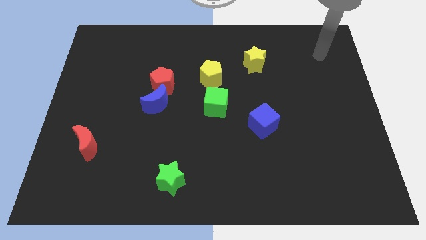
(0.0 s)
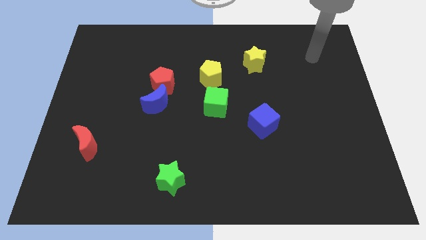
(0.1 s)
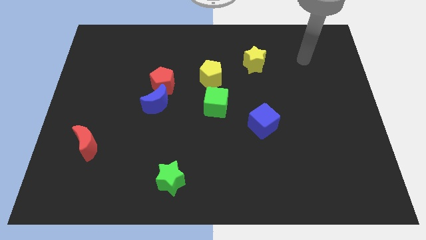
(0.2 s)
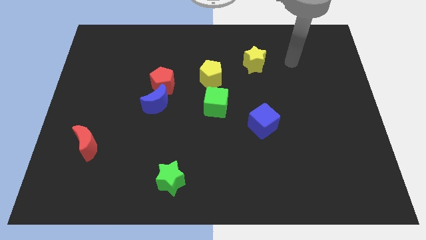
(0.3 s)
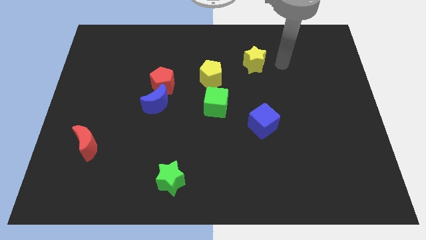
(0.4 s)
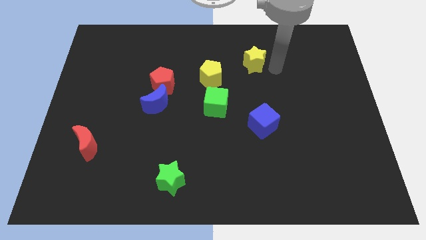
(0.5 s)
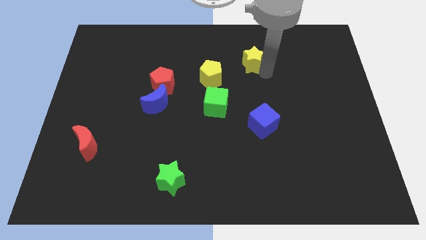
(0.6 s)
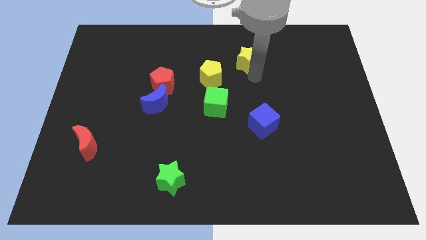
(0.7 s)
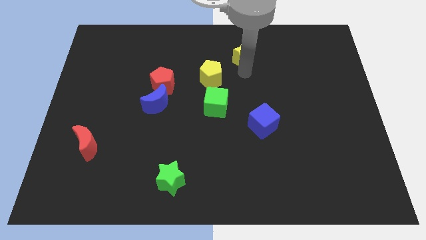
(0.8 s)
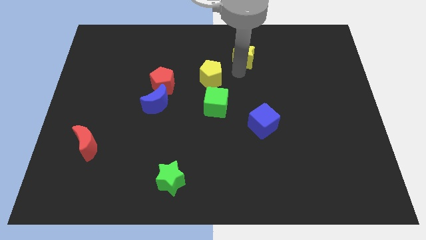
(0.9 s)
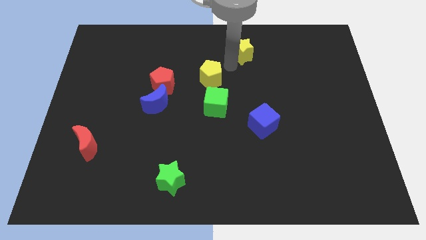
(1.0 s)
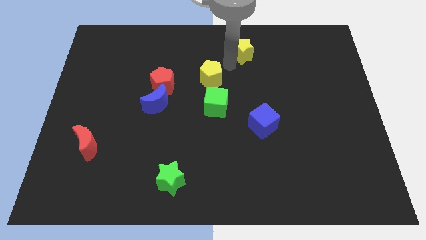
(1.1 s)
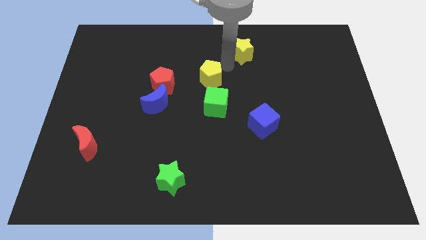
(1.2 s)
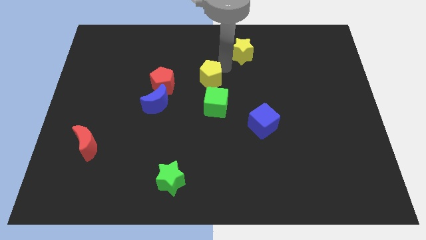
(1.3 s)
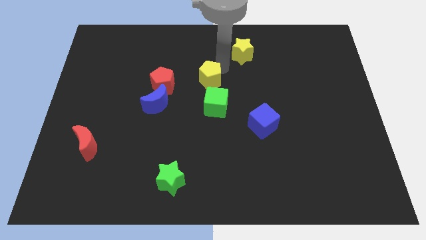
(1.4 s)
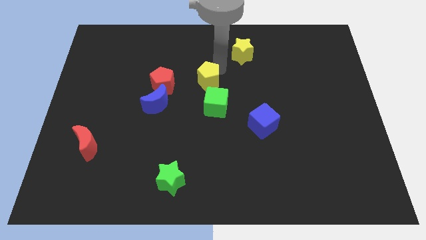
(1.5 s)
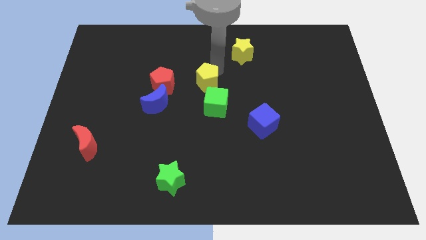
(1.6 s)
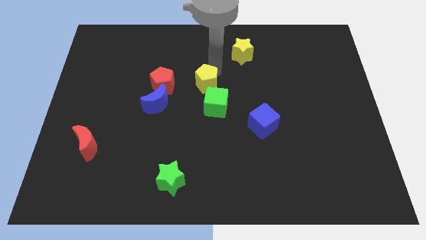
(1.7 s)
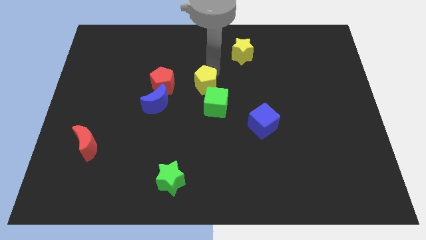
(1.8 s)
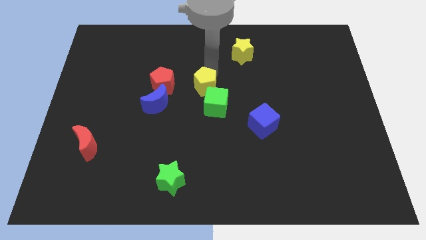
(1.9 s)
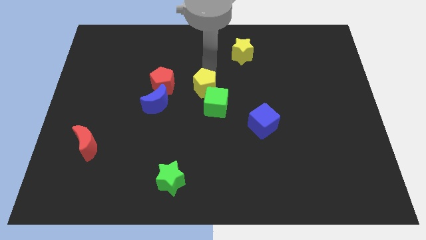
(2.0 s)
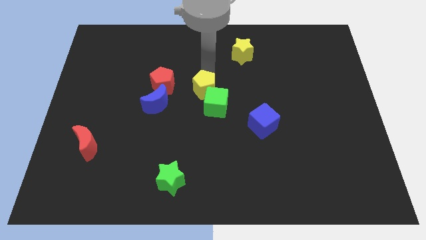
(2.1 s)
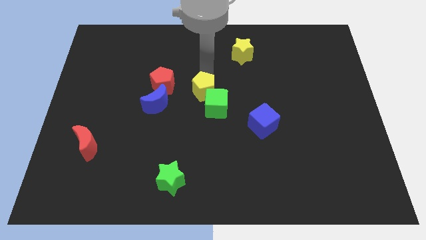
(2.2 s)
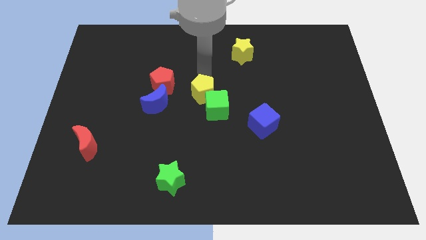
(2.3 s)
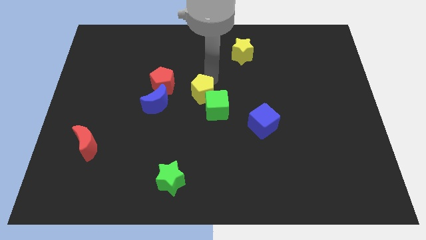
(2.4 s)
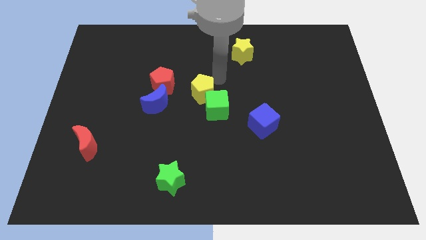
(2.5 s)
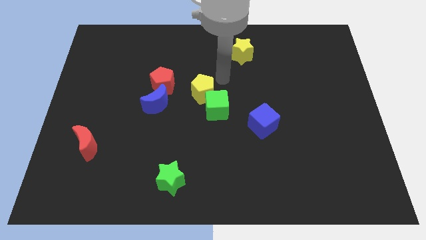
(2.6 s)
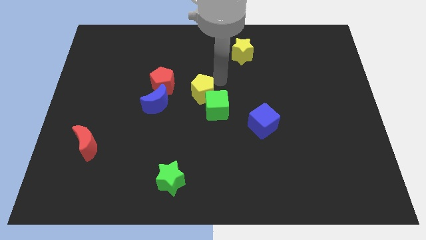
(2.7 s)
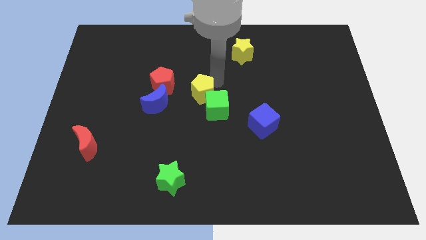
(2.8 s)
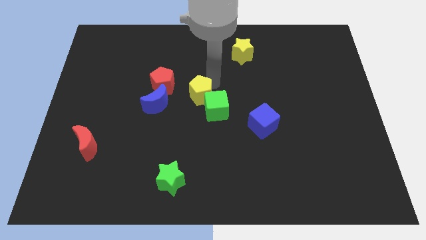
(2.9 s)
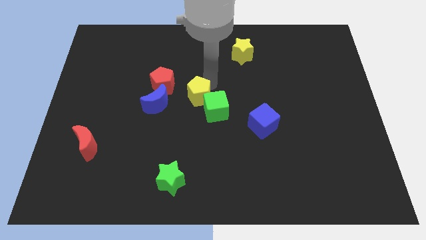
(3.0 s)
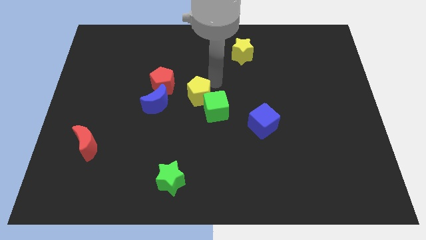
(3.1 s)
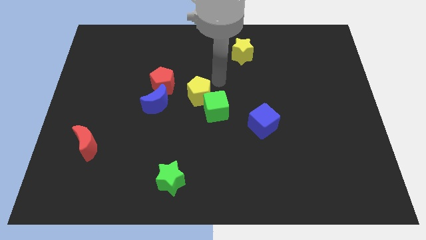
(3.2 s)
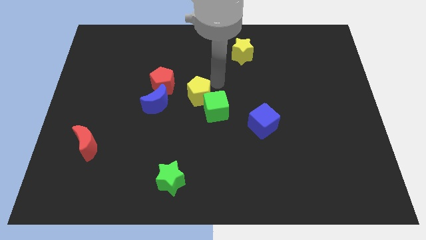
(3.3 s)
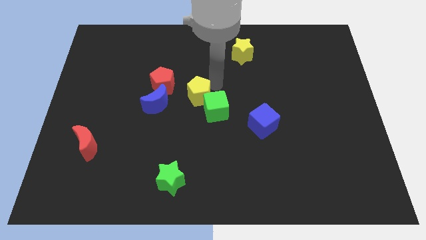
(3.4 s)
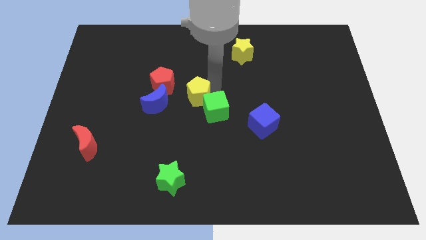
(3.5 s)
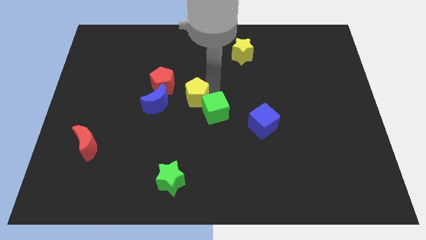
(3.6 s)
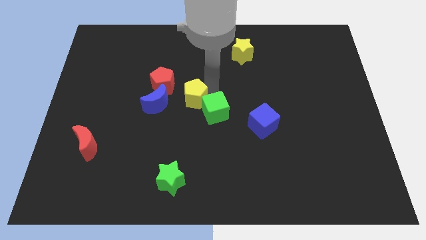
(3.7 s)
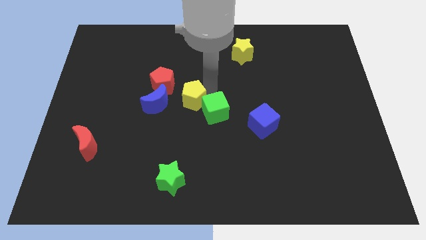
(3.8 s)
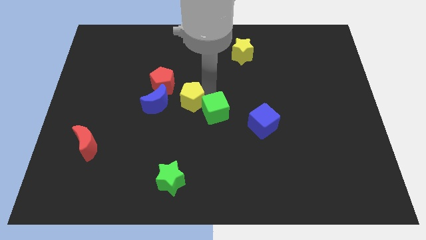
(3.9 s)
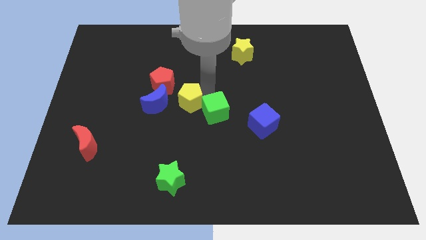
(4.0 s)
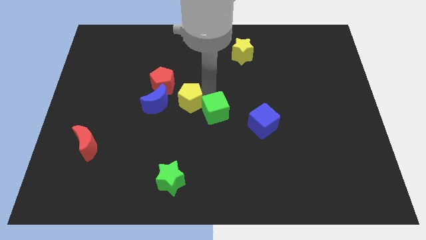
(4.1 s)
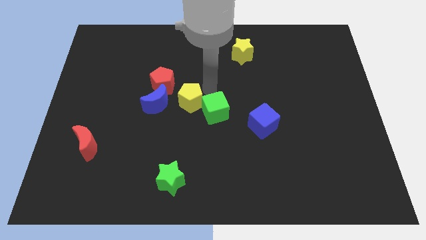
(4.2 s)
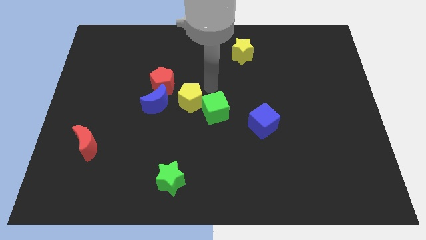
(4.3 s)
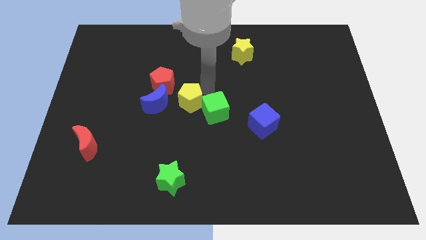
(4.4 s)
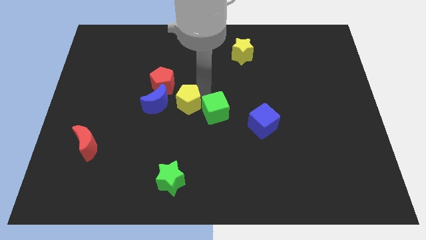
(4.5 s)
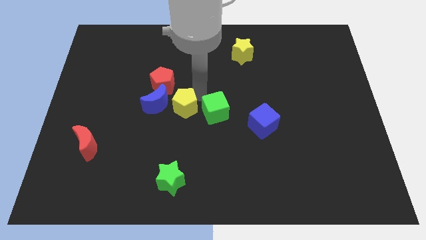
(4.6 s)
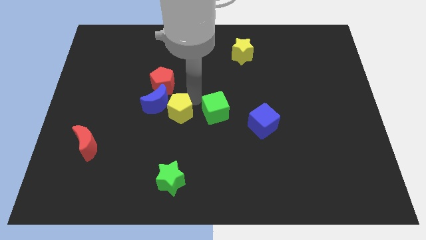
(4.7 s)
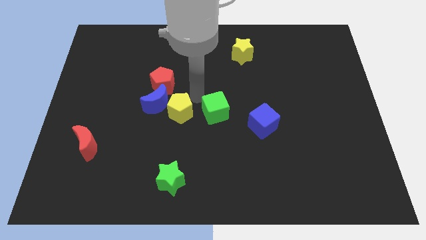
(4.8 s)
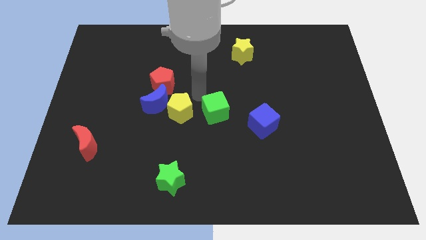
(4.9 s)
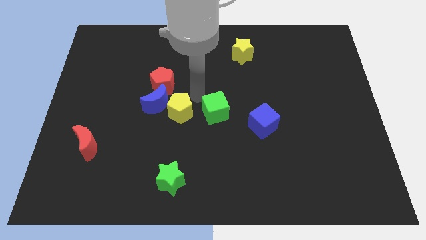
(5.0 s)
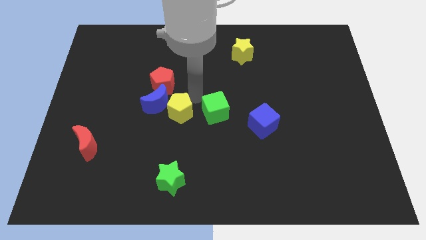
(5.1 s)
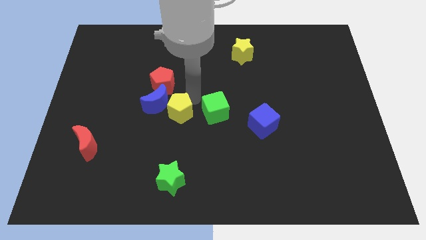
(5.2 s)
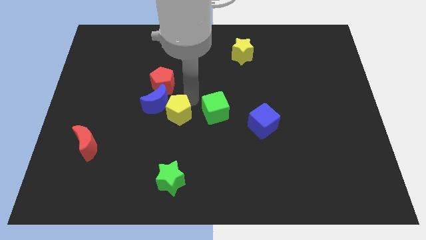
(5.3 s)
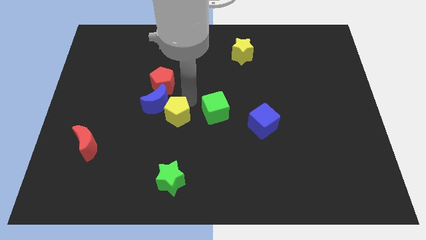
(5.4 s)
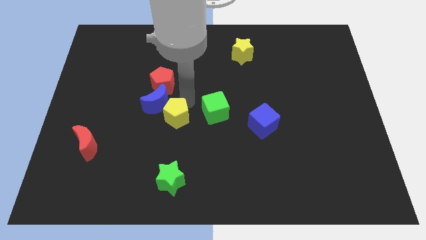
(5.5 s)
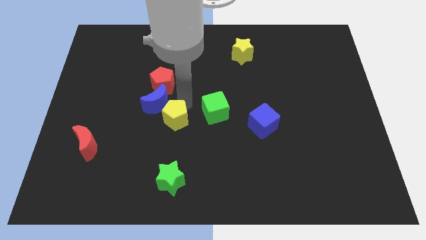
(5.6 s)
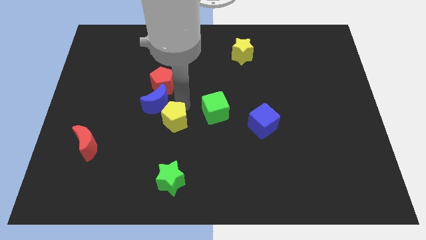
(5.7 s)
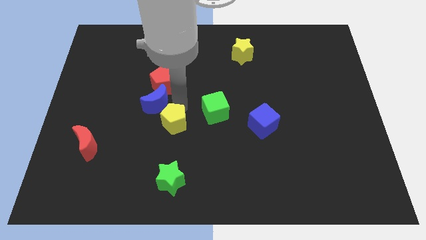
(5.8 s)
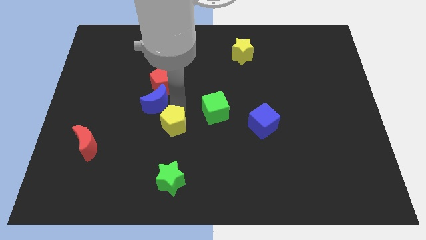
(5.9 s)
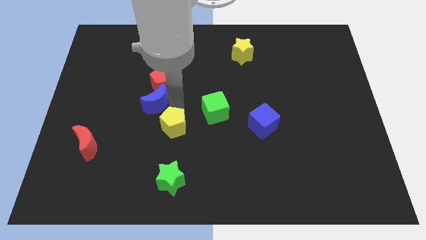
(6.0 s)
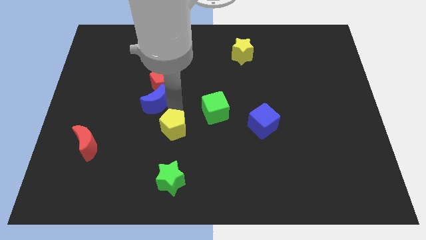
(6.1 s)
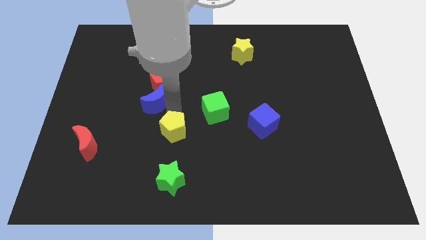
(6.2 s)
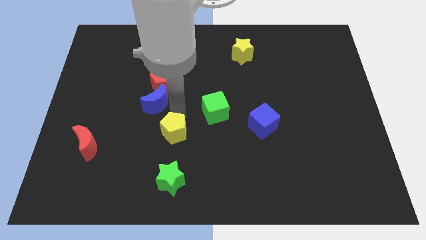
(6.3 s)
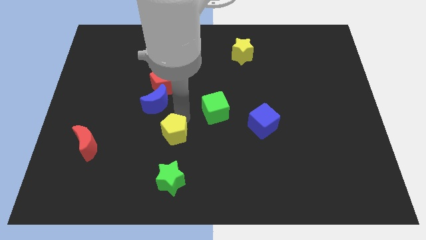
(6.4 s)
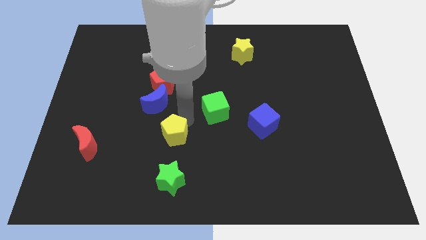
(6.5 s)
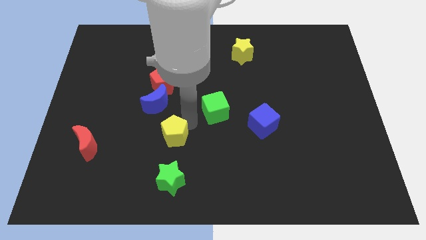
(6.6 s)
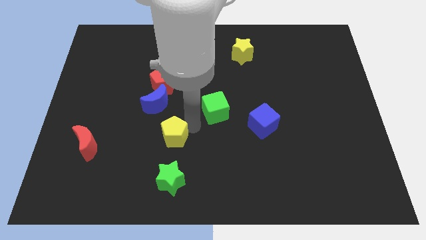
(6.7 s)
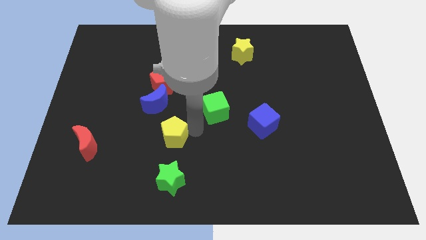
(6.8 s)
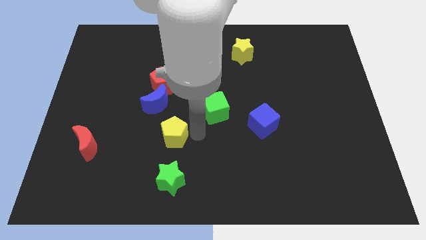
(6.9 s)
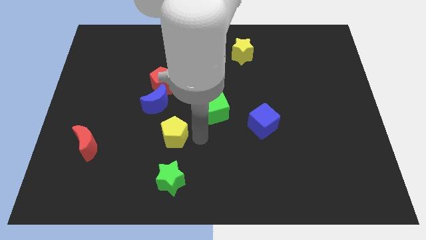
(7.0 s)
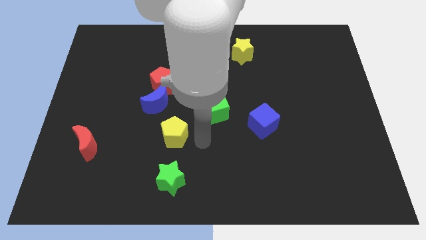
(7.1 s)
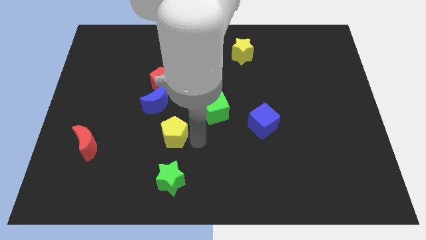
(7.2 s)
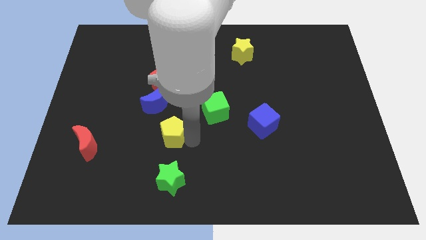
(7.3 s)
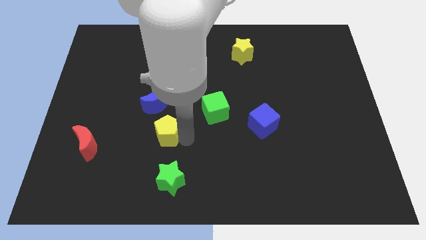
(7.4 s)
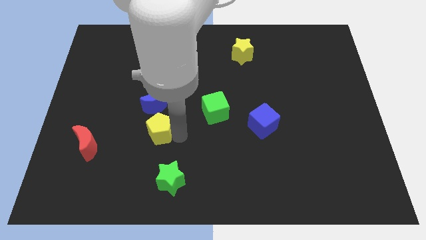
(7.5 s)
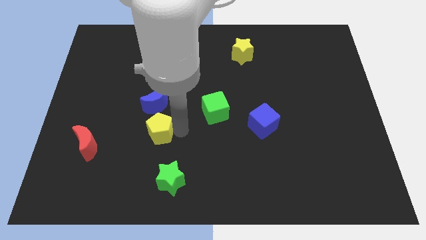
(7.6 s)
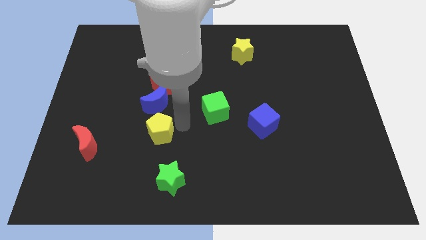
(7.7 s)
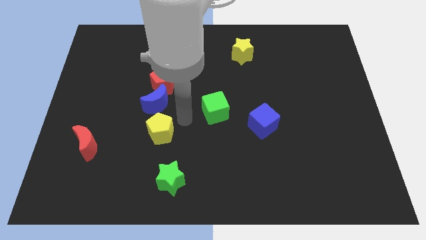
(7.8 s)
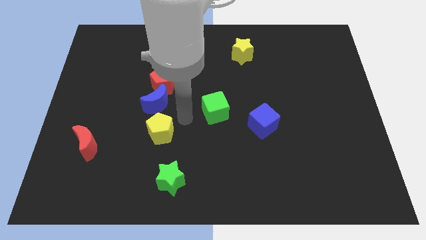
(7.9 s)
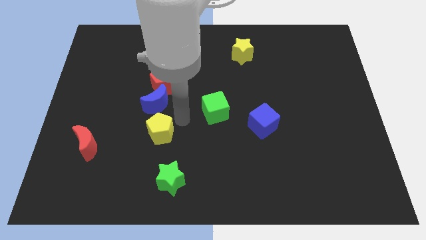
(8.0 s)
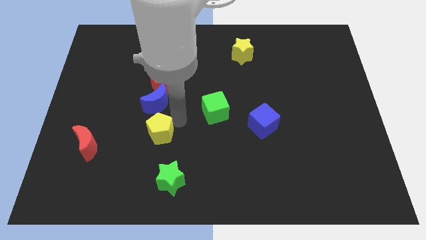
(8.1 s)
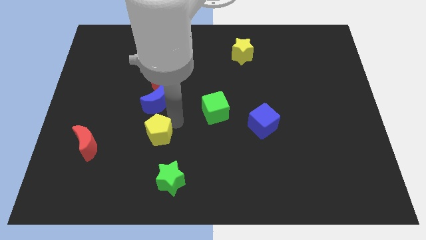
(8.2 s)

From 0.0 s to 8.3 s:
move the yellow pentagon down and left

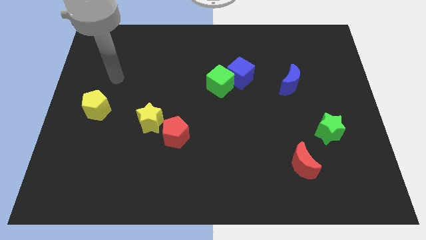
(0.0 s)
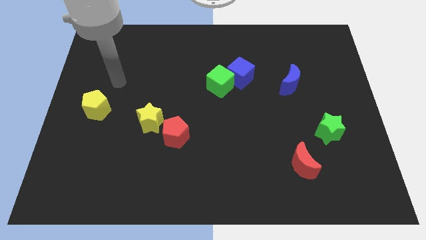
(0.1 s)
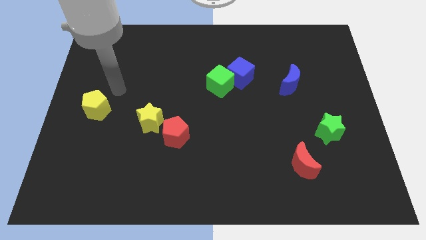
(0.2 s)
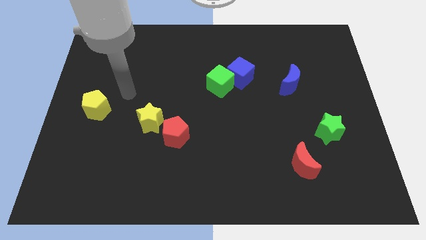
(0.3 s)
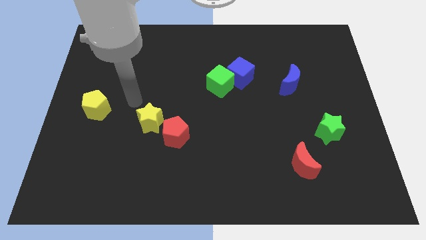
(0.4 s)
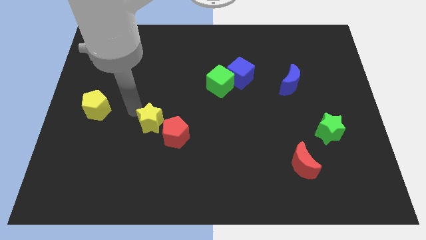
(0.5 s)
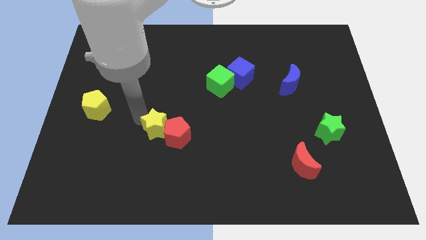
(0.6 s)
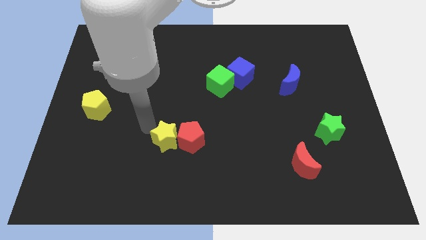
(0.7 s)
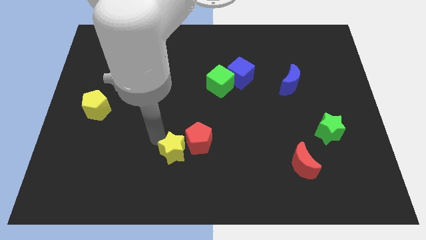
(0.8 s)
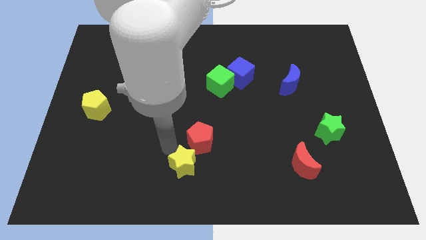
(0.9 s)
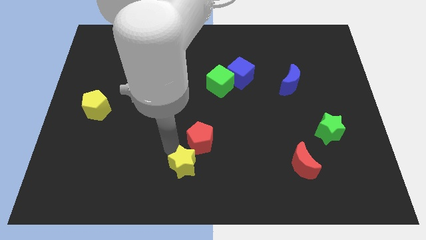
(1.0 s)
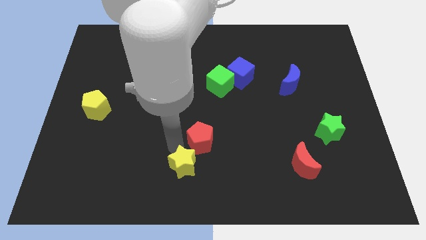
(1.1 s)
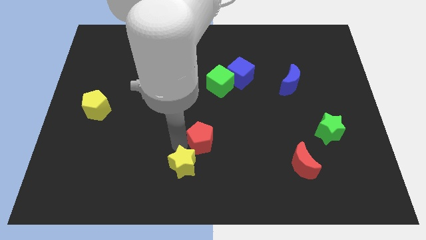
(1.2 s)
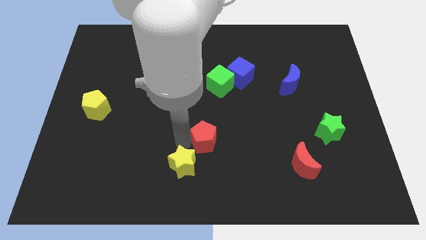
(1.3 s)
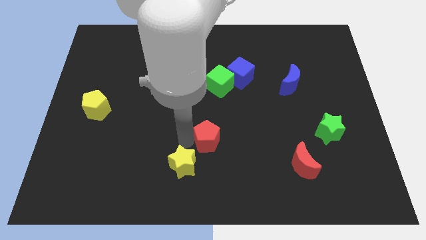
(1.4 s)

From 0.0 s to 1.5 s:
slightly slide the red pentagon right
